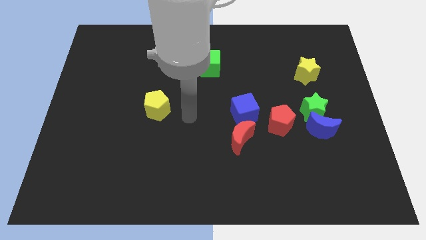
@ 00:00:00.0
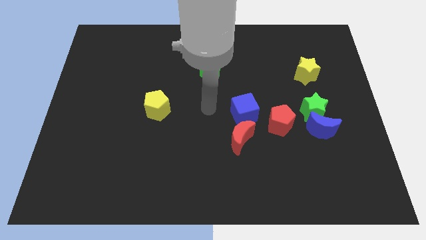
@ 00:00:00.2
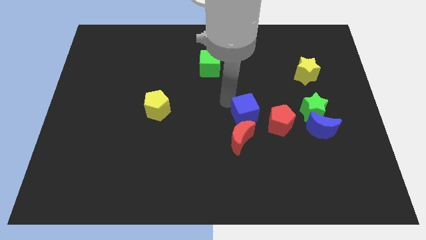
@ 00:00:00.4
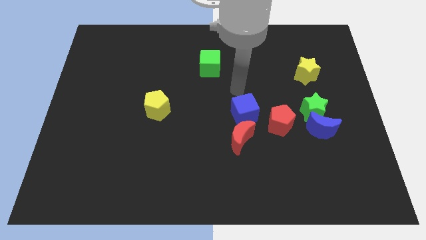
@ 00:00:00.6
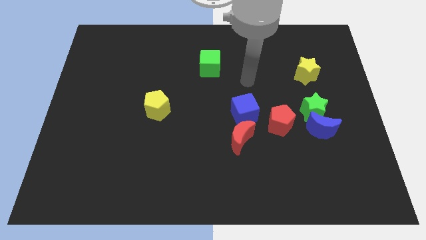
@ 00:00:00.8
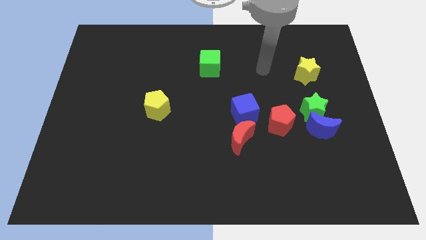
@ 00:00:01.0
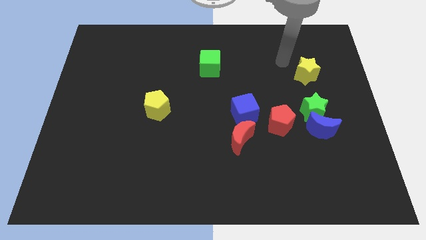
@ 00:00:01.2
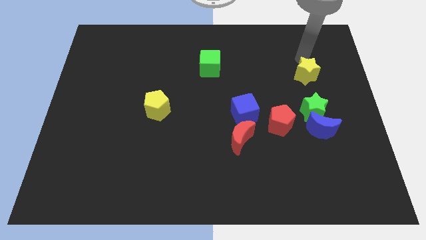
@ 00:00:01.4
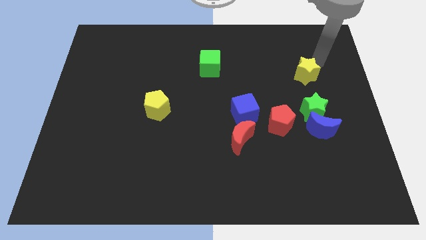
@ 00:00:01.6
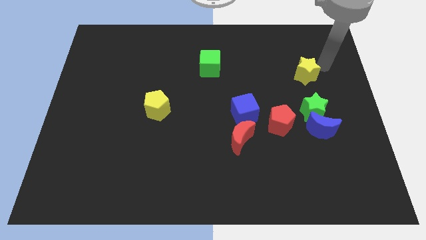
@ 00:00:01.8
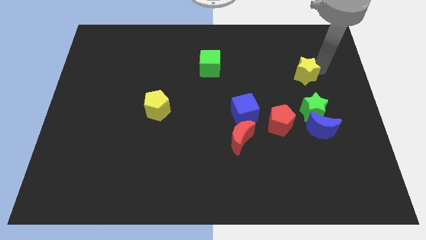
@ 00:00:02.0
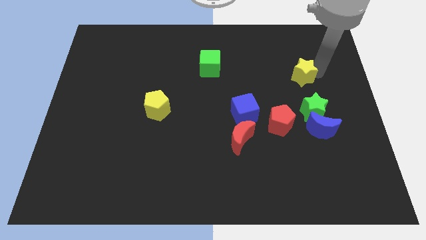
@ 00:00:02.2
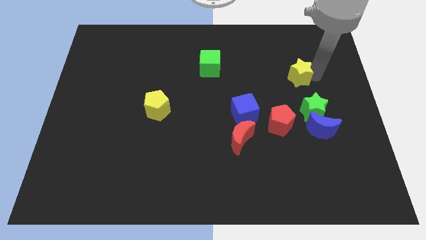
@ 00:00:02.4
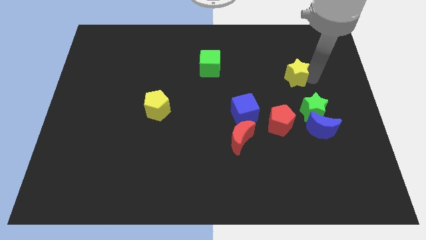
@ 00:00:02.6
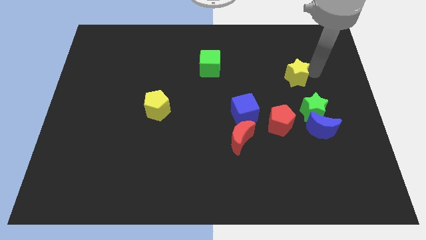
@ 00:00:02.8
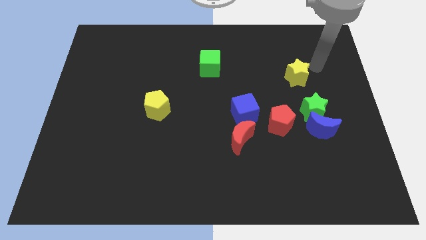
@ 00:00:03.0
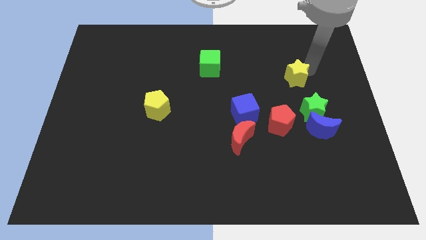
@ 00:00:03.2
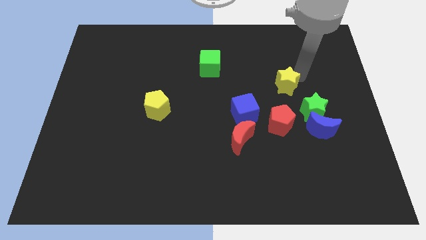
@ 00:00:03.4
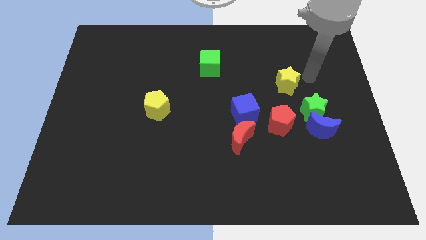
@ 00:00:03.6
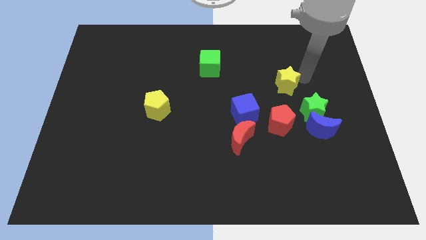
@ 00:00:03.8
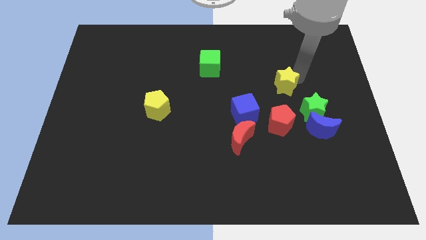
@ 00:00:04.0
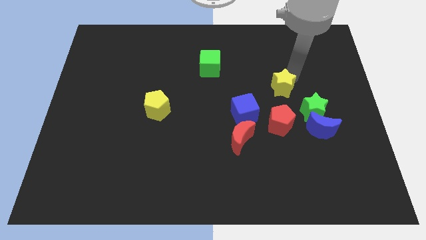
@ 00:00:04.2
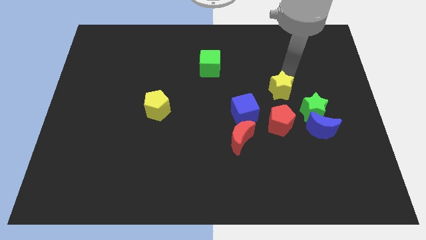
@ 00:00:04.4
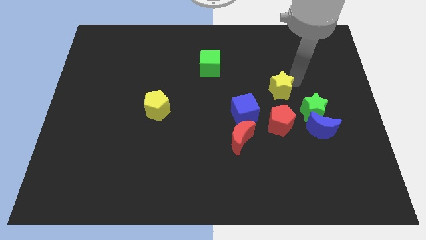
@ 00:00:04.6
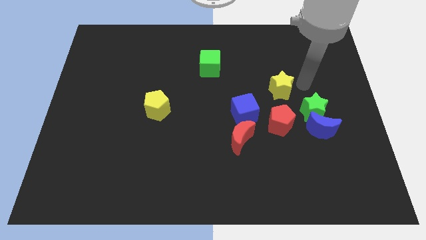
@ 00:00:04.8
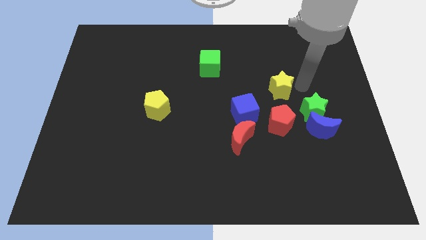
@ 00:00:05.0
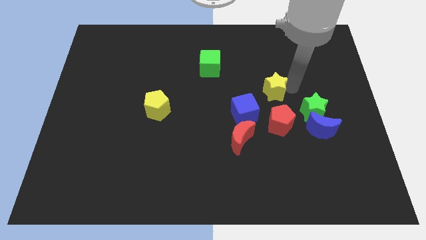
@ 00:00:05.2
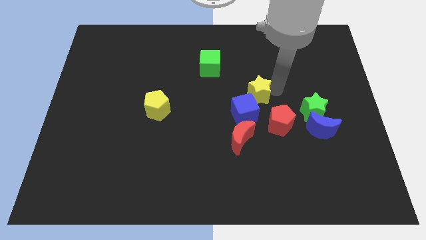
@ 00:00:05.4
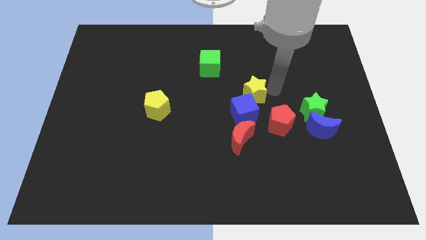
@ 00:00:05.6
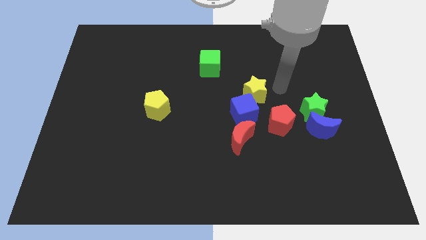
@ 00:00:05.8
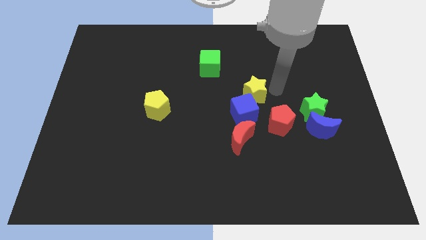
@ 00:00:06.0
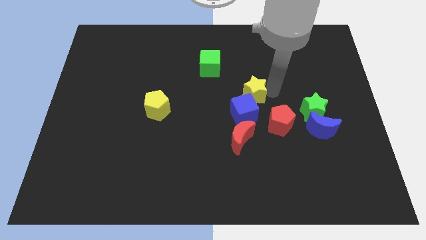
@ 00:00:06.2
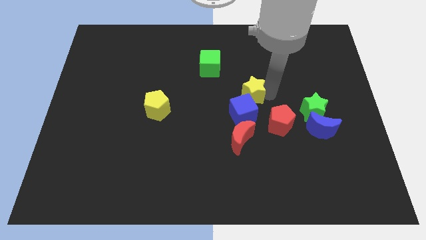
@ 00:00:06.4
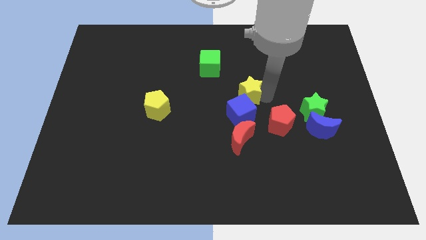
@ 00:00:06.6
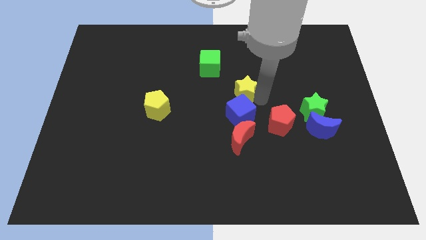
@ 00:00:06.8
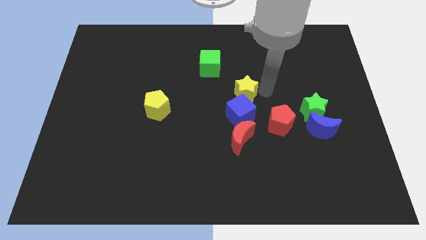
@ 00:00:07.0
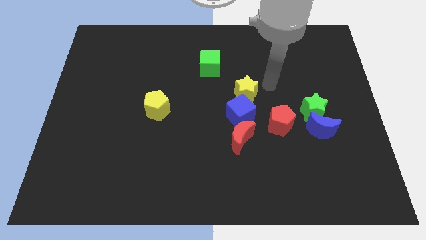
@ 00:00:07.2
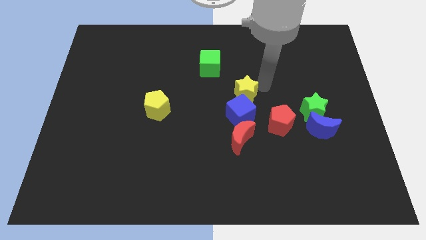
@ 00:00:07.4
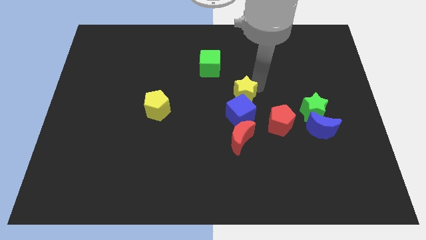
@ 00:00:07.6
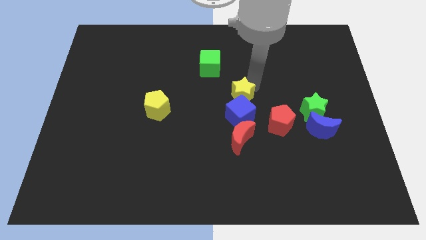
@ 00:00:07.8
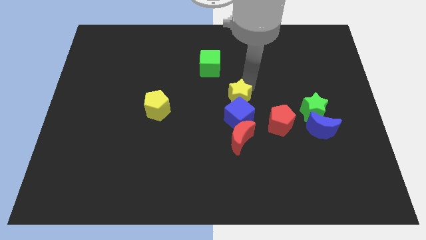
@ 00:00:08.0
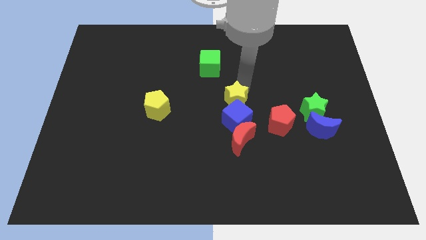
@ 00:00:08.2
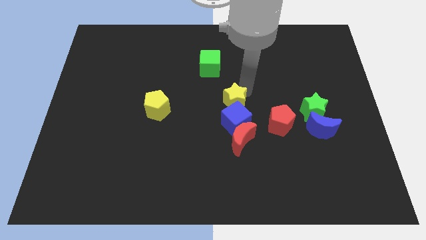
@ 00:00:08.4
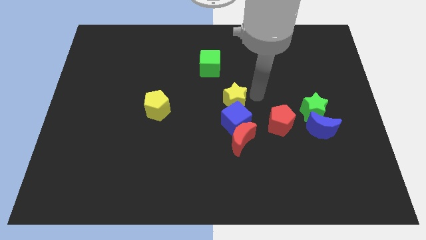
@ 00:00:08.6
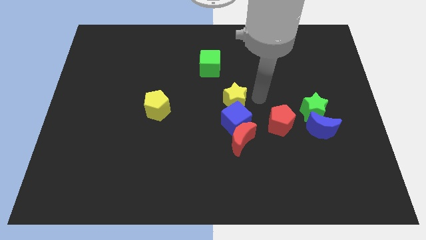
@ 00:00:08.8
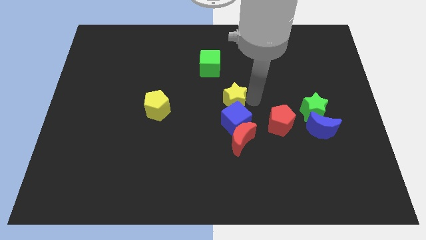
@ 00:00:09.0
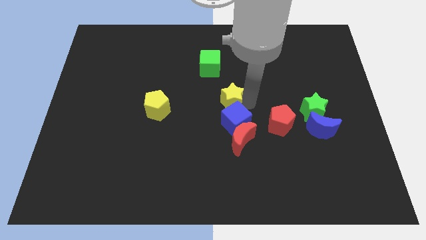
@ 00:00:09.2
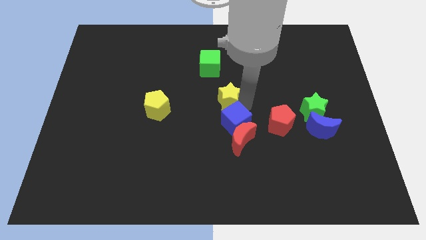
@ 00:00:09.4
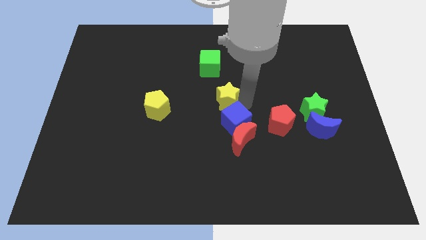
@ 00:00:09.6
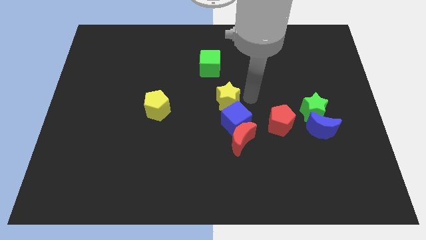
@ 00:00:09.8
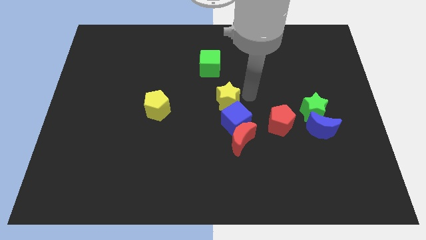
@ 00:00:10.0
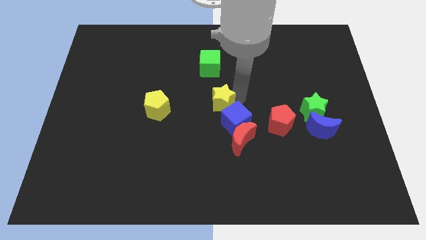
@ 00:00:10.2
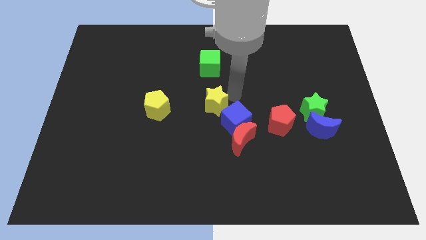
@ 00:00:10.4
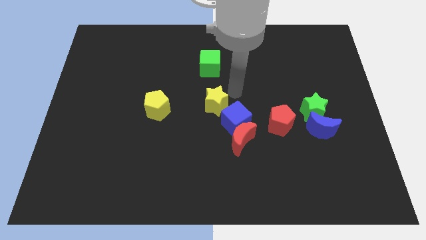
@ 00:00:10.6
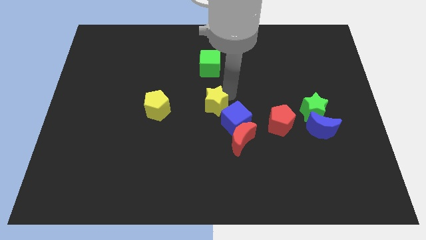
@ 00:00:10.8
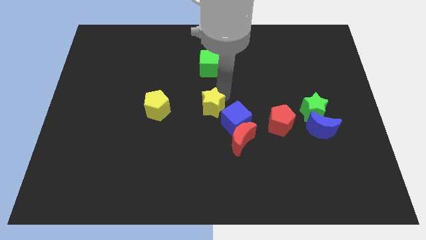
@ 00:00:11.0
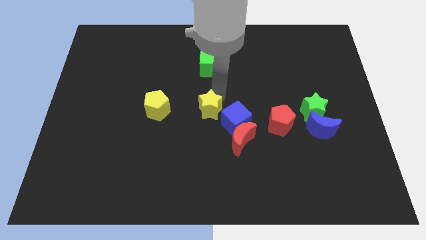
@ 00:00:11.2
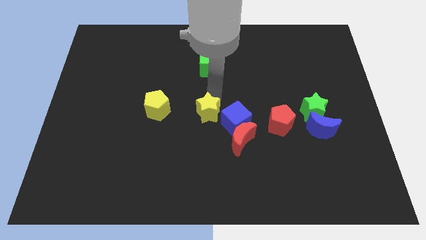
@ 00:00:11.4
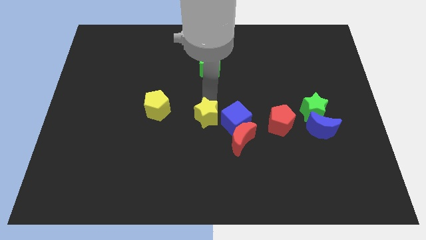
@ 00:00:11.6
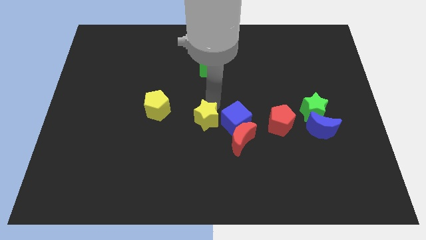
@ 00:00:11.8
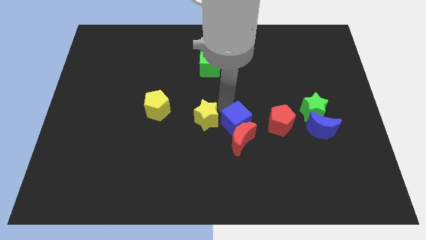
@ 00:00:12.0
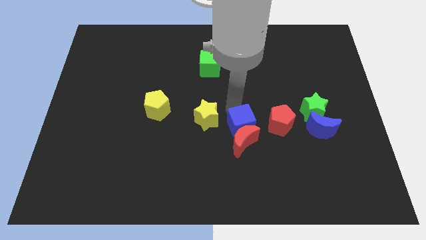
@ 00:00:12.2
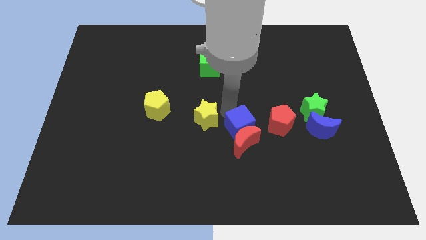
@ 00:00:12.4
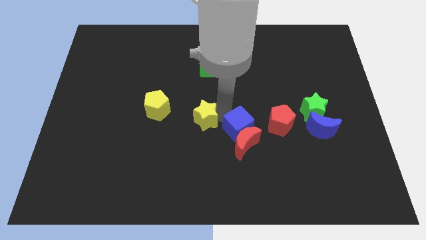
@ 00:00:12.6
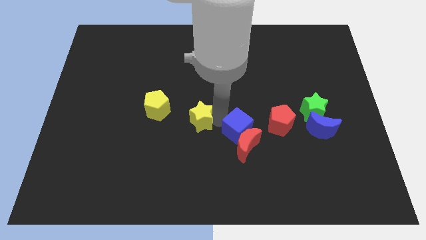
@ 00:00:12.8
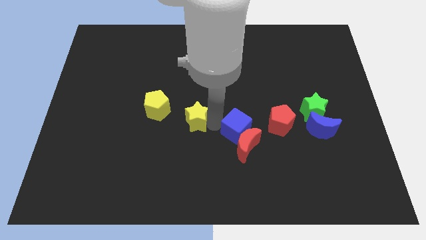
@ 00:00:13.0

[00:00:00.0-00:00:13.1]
push the yellow star diagonally down and to the right of the yellow pentagon
